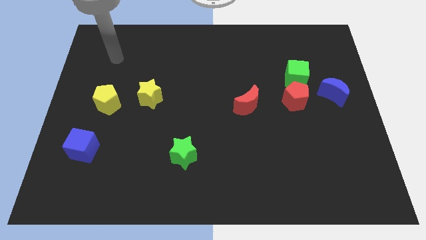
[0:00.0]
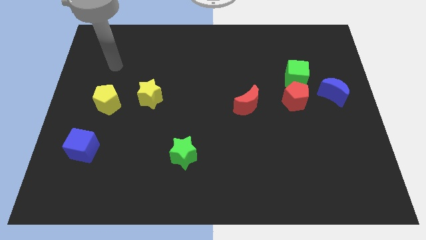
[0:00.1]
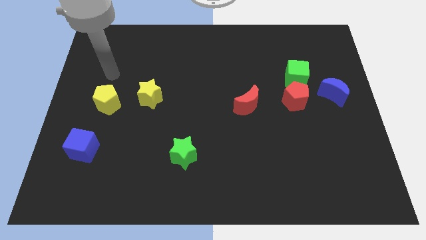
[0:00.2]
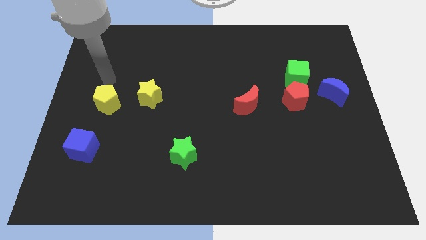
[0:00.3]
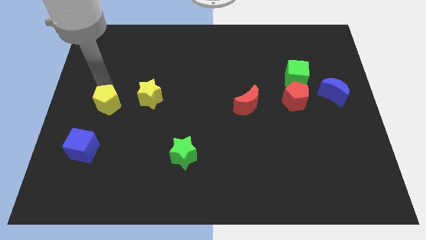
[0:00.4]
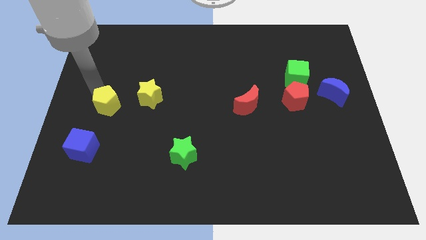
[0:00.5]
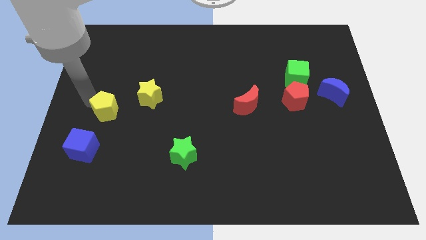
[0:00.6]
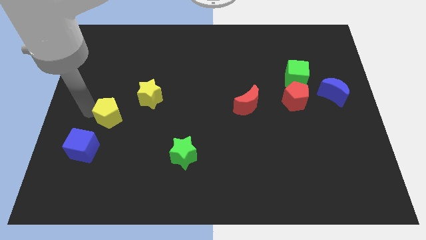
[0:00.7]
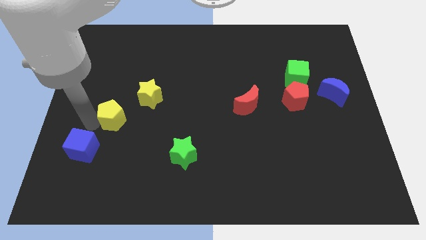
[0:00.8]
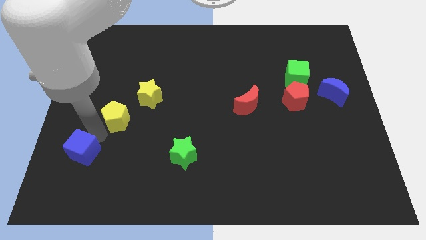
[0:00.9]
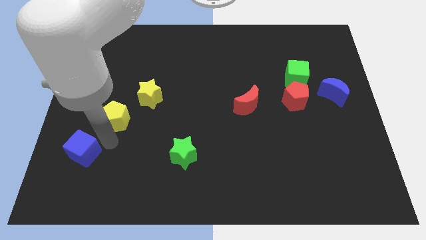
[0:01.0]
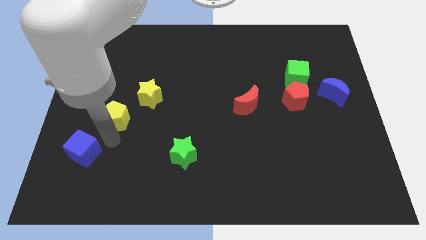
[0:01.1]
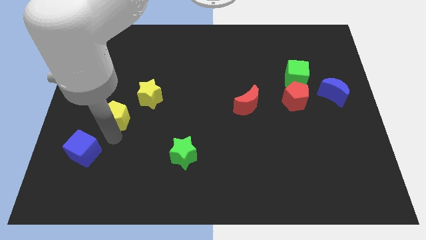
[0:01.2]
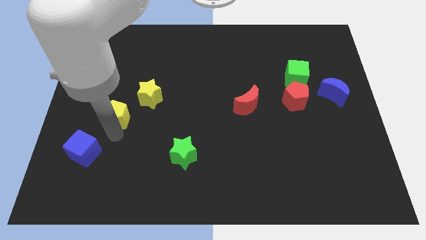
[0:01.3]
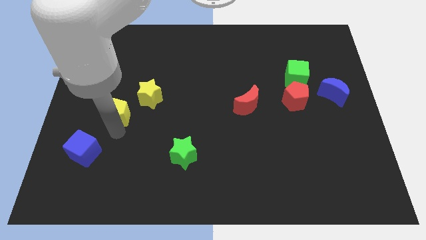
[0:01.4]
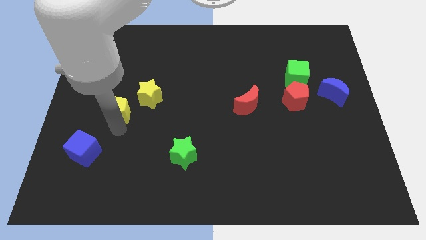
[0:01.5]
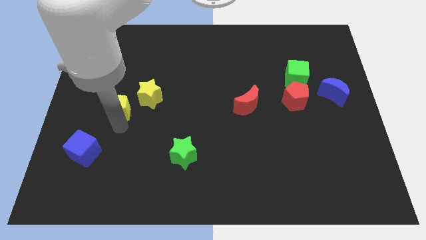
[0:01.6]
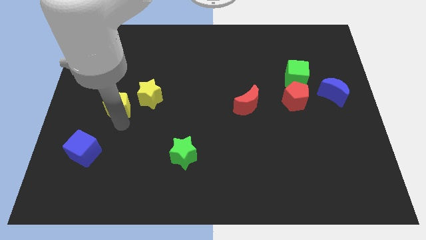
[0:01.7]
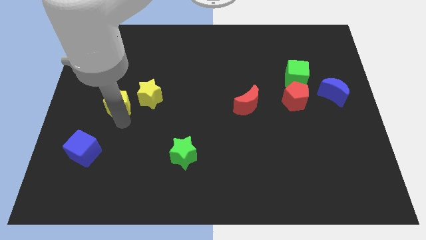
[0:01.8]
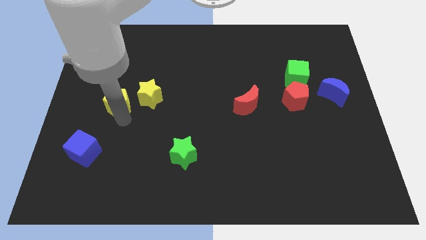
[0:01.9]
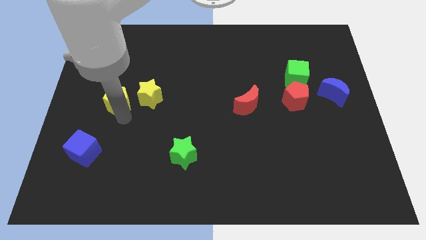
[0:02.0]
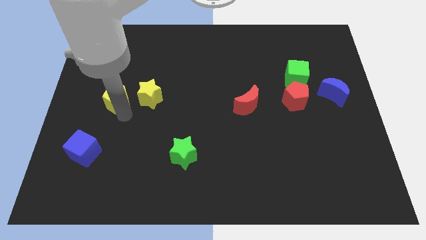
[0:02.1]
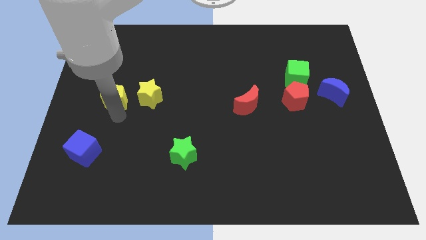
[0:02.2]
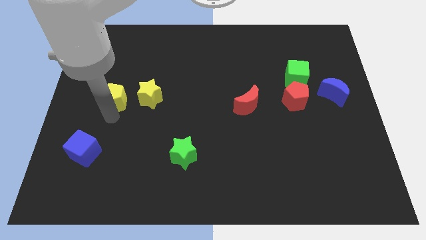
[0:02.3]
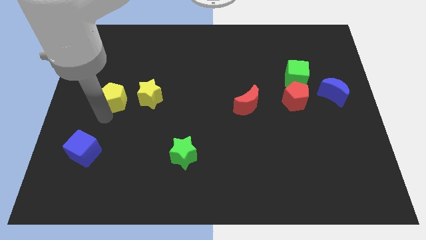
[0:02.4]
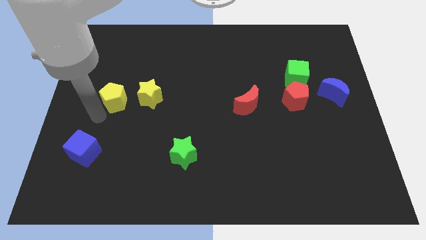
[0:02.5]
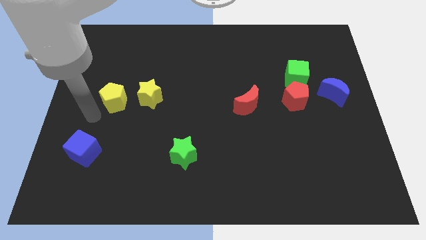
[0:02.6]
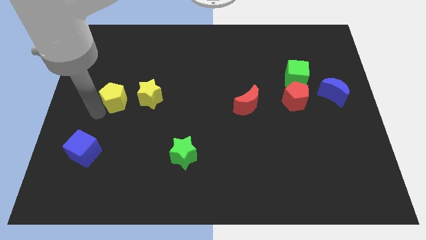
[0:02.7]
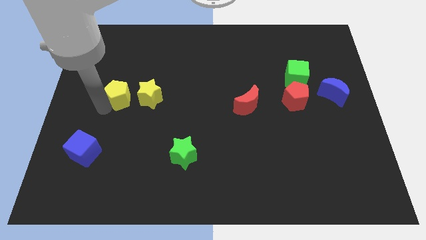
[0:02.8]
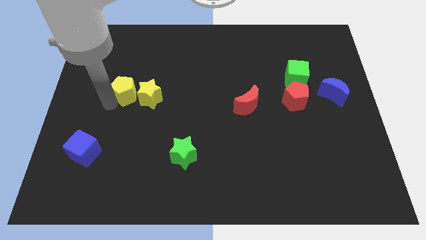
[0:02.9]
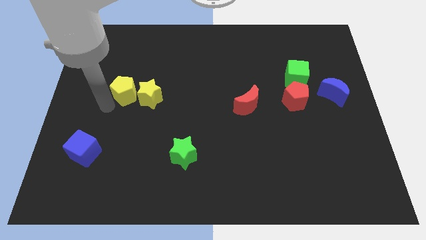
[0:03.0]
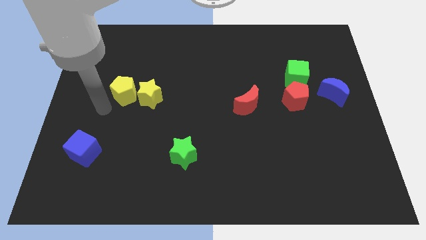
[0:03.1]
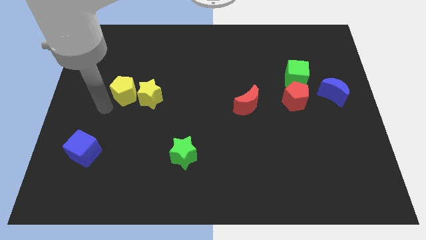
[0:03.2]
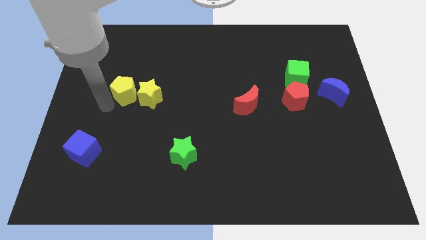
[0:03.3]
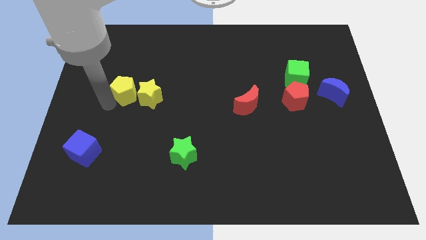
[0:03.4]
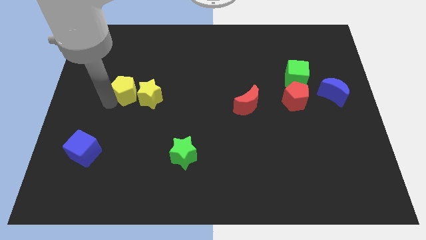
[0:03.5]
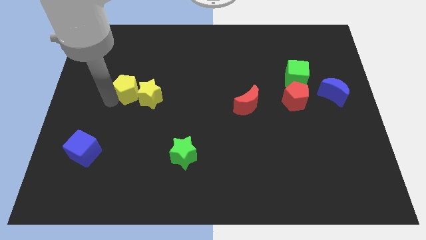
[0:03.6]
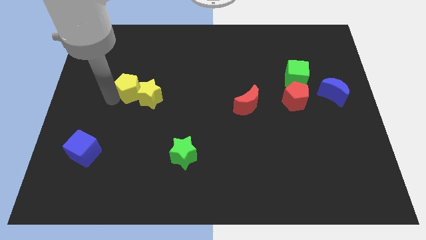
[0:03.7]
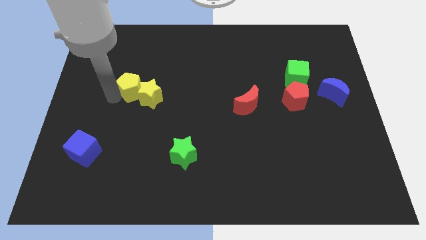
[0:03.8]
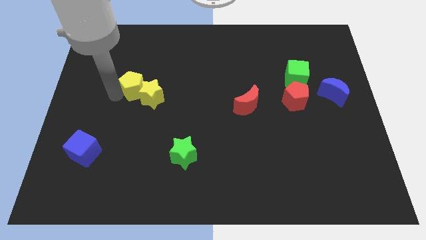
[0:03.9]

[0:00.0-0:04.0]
slide the yellow pentagon diagonally up and to the right slightly

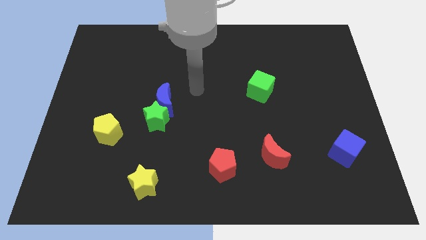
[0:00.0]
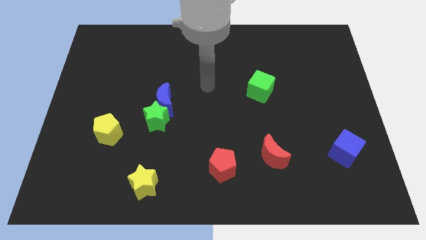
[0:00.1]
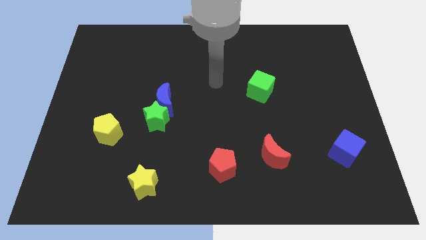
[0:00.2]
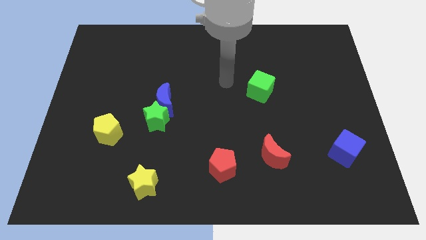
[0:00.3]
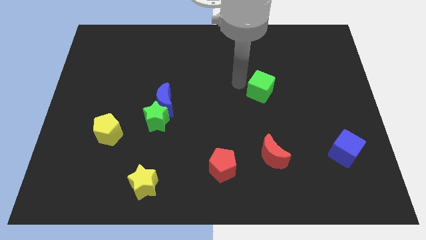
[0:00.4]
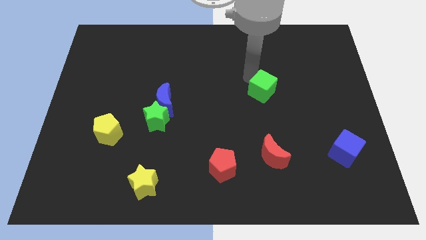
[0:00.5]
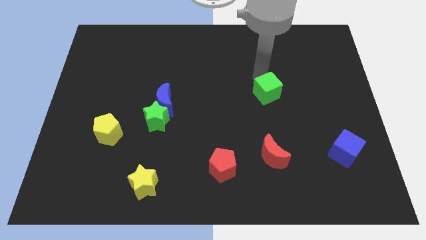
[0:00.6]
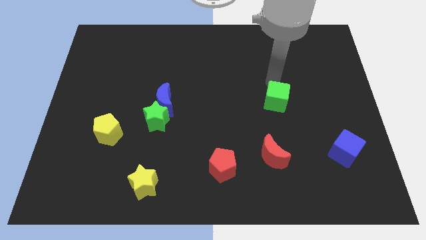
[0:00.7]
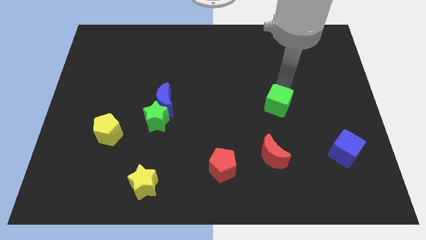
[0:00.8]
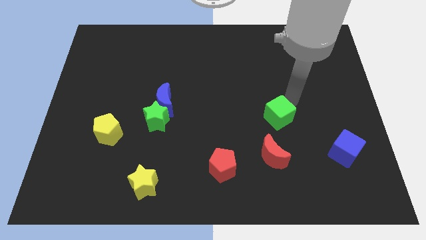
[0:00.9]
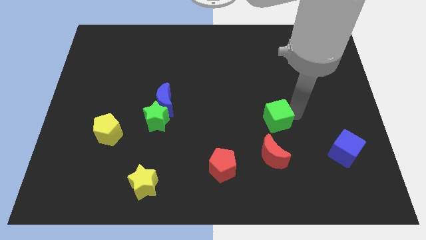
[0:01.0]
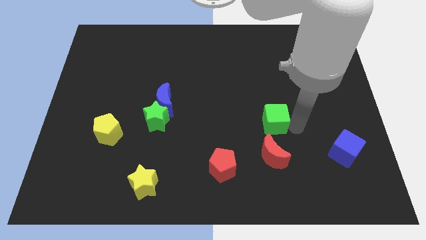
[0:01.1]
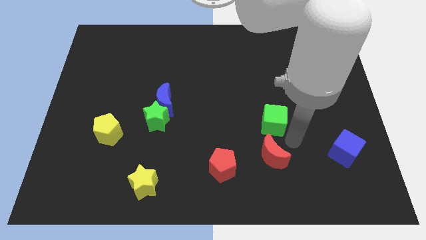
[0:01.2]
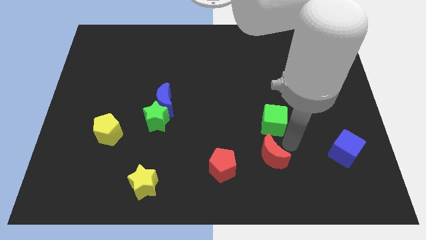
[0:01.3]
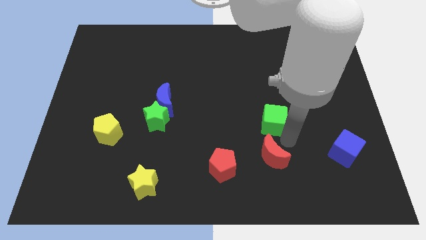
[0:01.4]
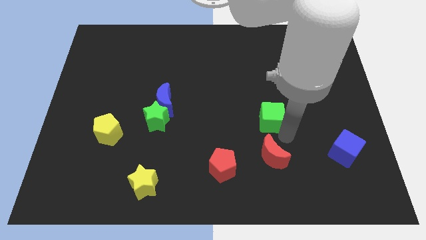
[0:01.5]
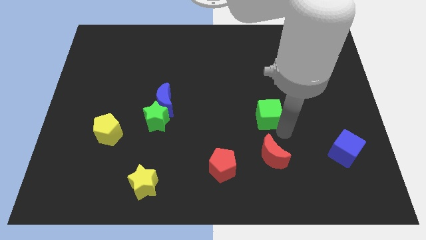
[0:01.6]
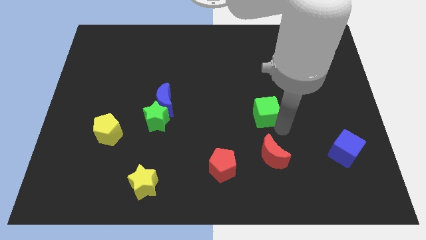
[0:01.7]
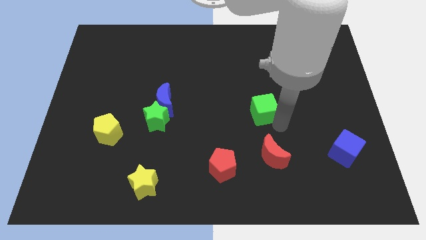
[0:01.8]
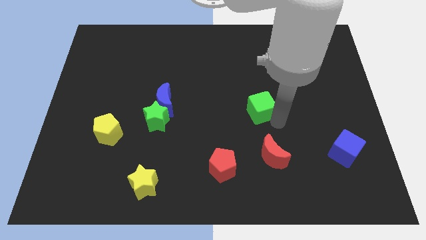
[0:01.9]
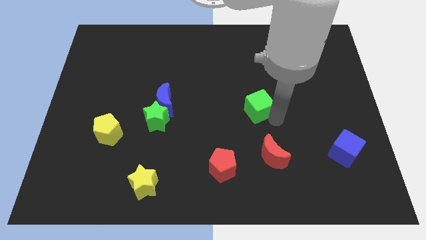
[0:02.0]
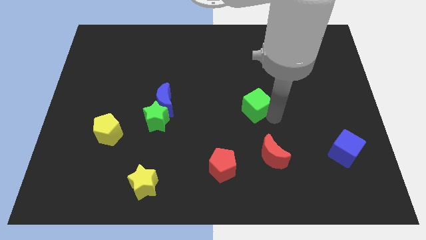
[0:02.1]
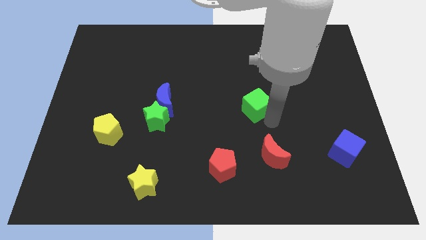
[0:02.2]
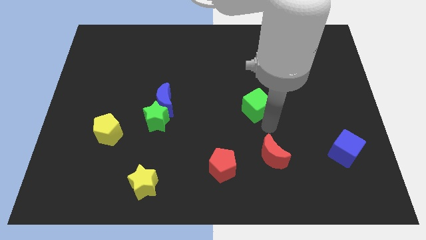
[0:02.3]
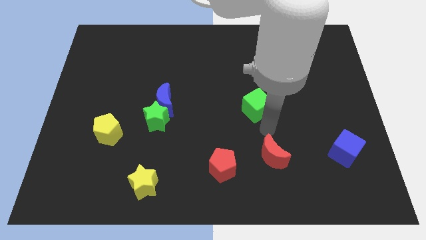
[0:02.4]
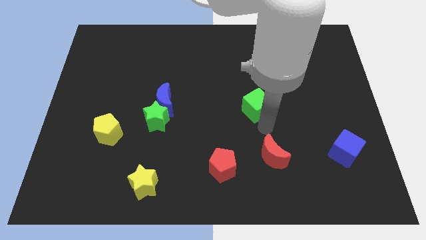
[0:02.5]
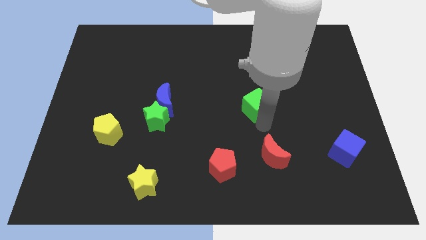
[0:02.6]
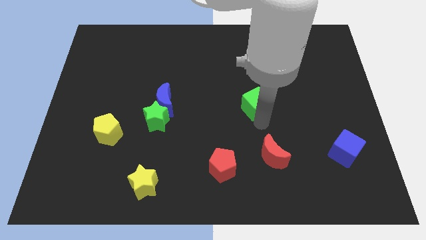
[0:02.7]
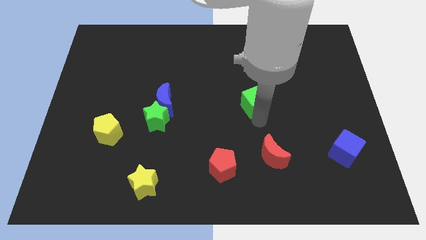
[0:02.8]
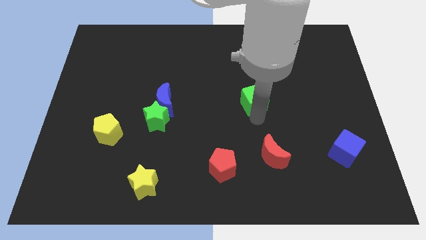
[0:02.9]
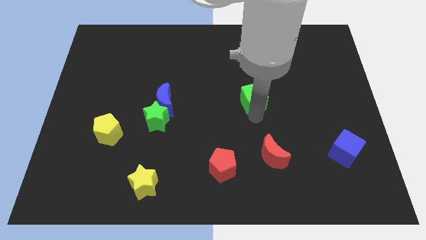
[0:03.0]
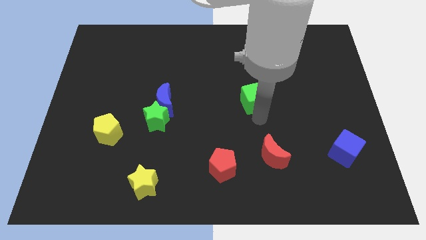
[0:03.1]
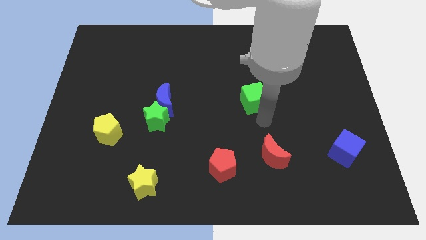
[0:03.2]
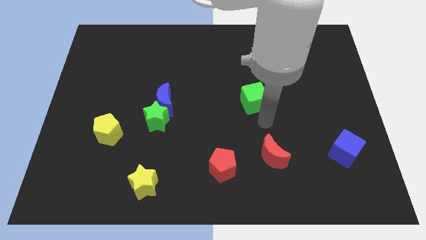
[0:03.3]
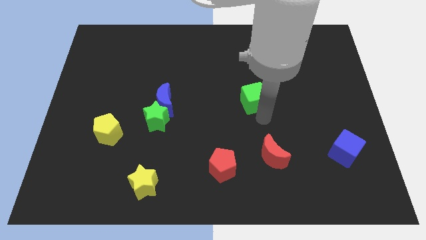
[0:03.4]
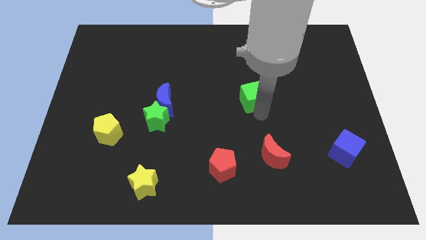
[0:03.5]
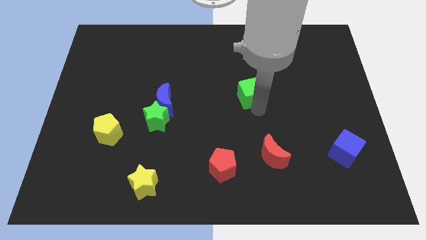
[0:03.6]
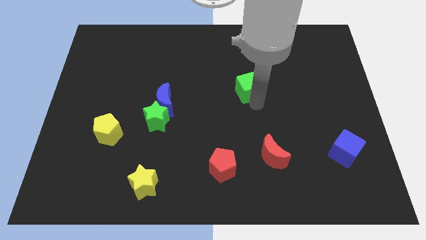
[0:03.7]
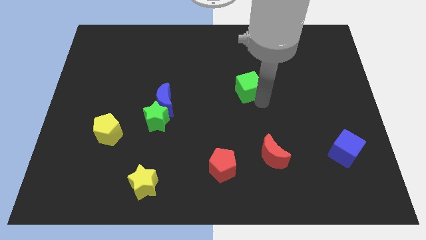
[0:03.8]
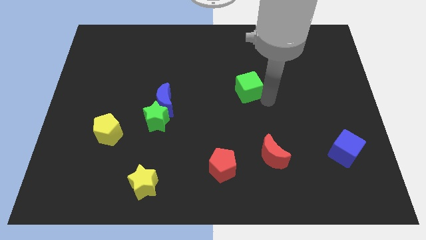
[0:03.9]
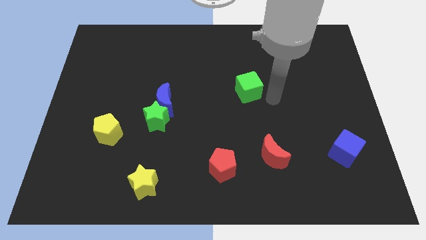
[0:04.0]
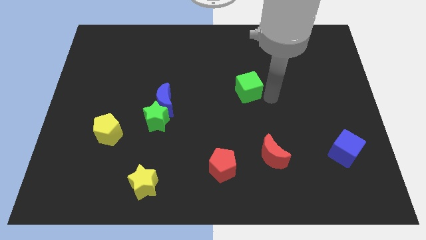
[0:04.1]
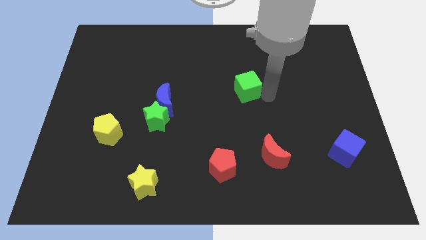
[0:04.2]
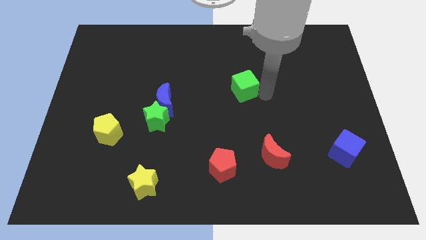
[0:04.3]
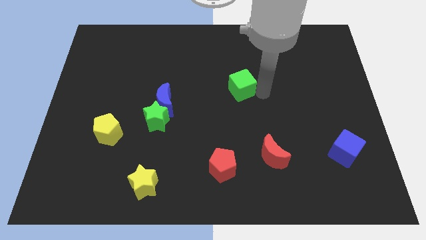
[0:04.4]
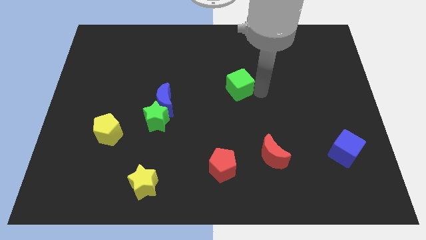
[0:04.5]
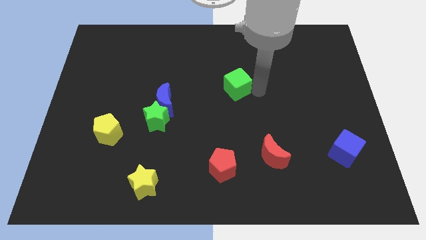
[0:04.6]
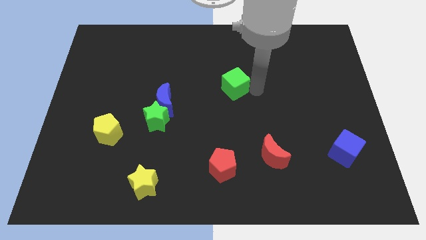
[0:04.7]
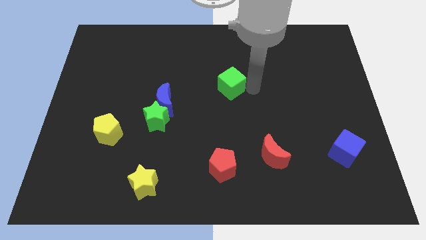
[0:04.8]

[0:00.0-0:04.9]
move the green cube to the left a bit
